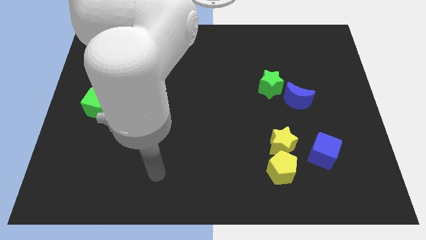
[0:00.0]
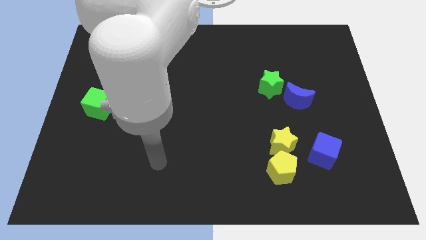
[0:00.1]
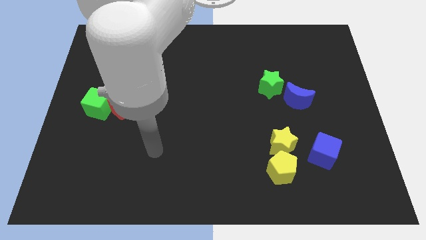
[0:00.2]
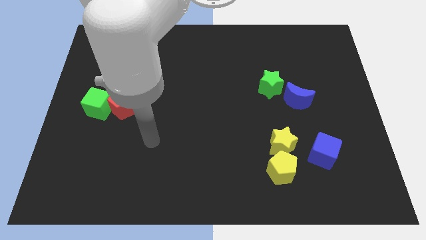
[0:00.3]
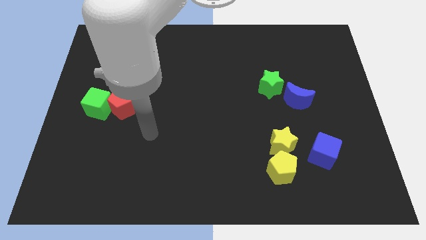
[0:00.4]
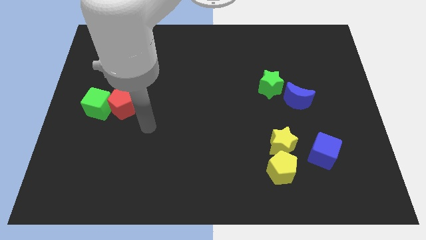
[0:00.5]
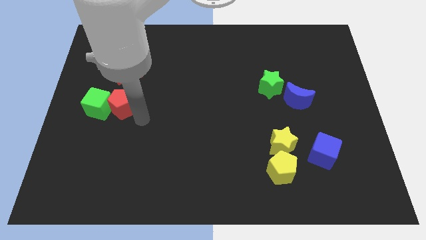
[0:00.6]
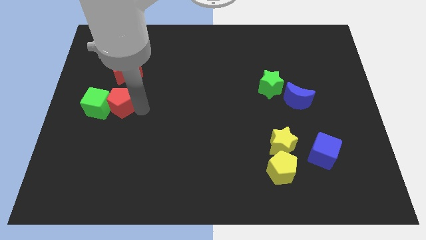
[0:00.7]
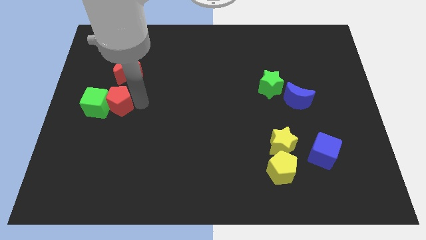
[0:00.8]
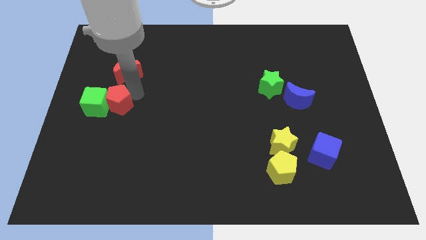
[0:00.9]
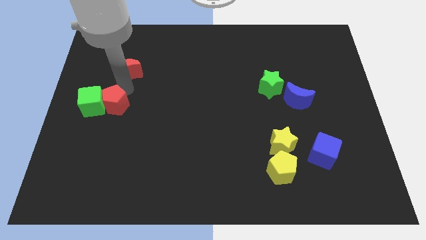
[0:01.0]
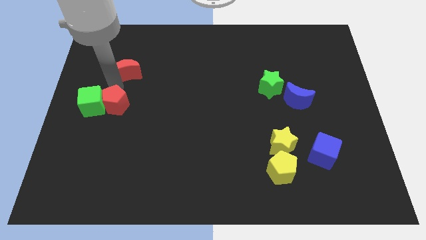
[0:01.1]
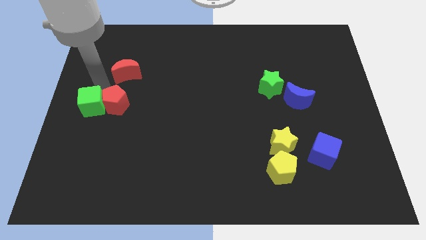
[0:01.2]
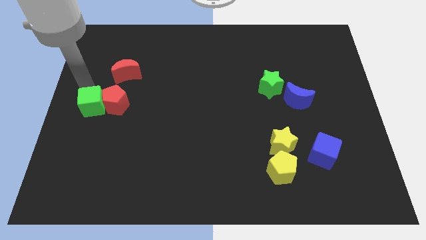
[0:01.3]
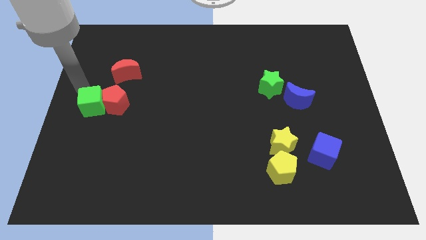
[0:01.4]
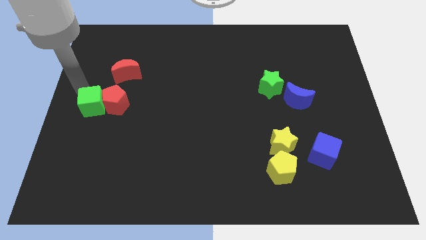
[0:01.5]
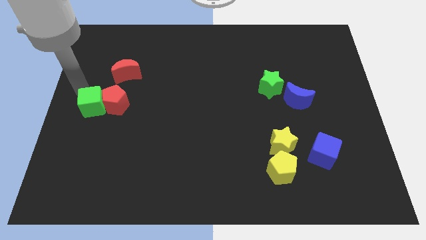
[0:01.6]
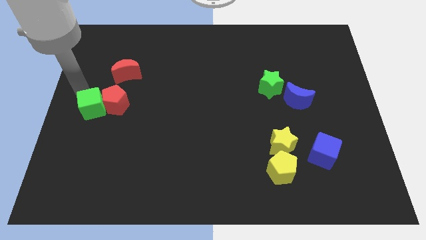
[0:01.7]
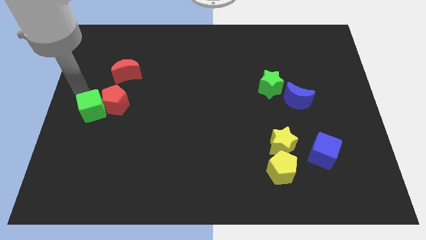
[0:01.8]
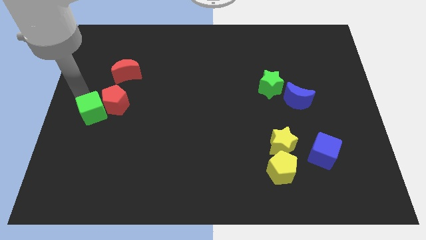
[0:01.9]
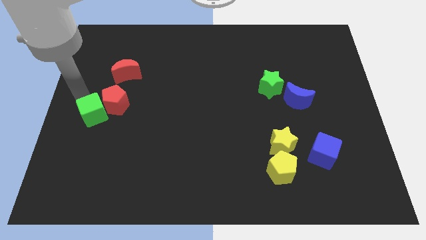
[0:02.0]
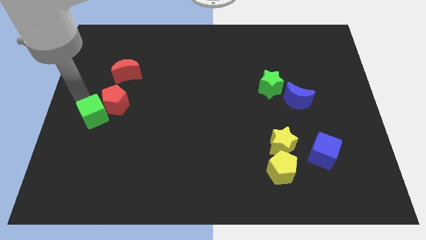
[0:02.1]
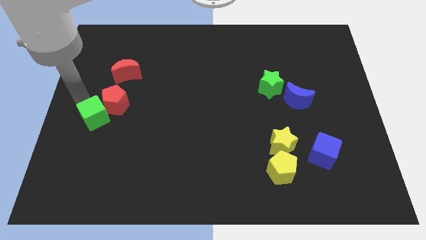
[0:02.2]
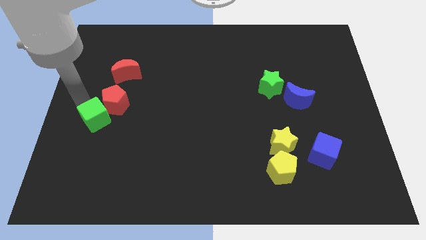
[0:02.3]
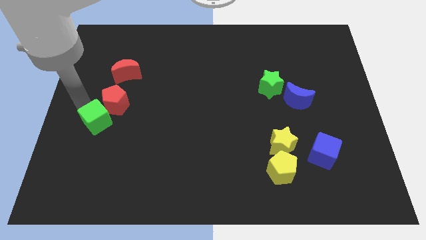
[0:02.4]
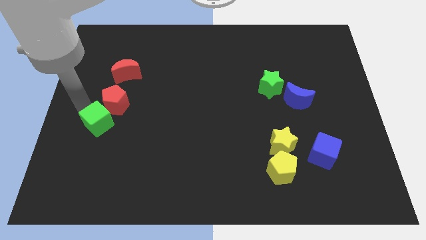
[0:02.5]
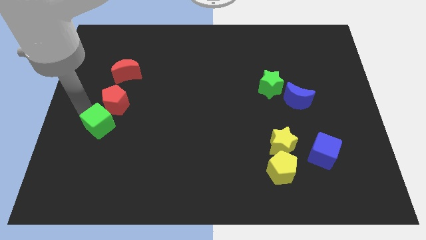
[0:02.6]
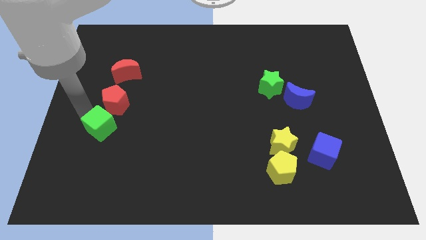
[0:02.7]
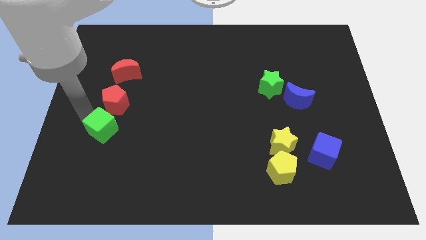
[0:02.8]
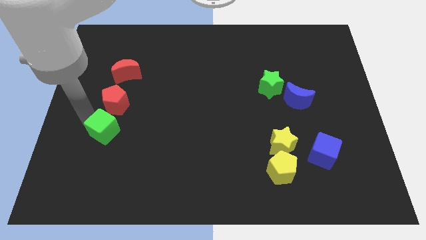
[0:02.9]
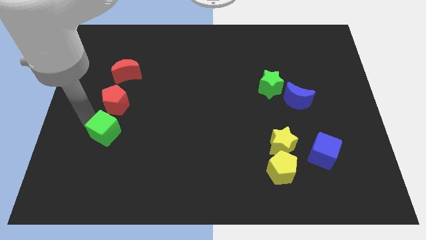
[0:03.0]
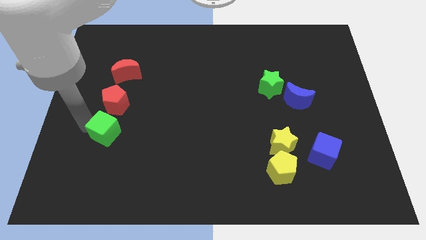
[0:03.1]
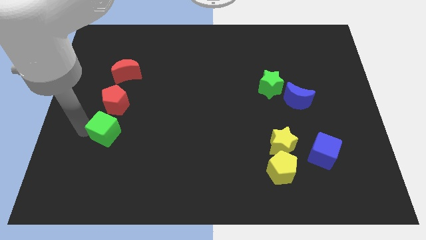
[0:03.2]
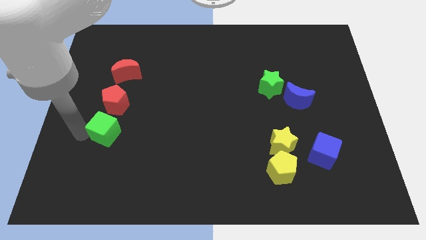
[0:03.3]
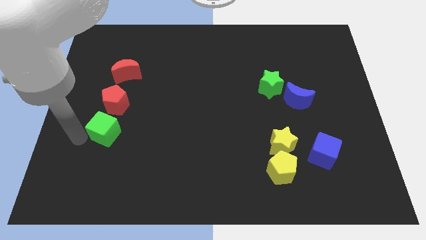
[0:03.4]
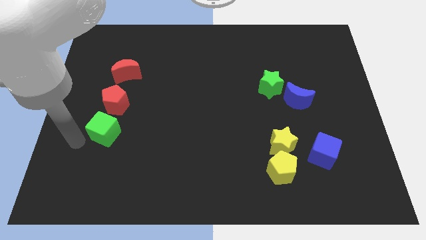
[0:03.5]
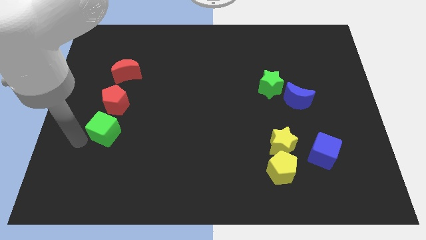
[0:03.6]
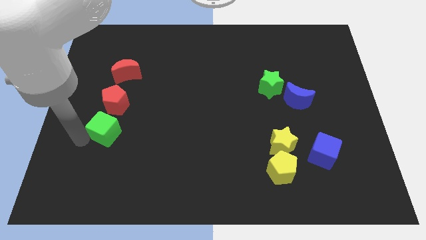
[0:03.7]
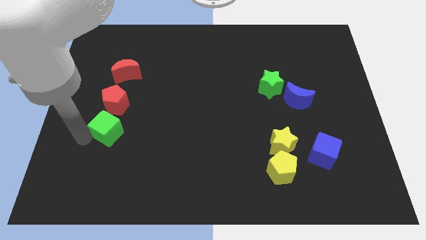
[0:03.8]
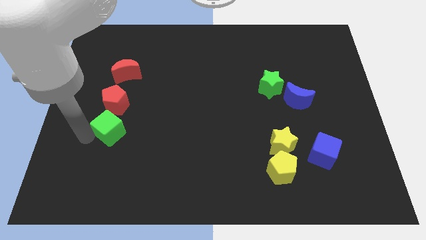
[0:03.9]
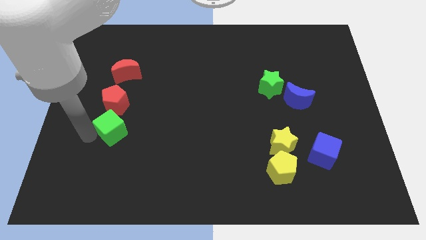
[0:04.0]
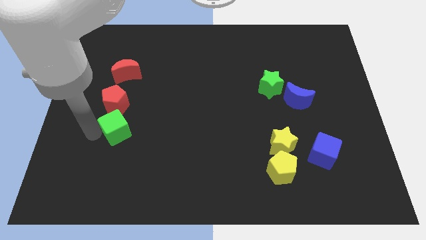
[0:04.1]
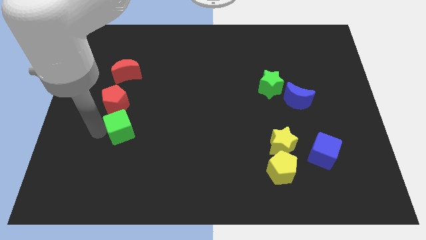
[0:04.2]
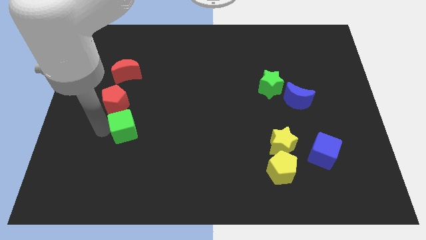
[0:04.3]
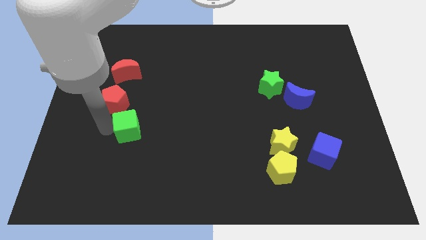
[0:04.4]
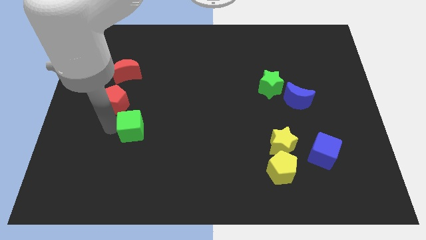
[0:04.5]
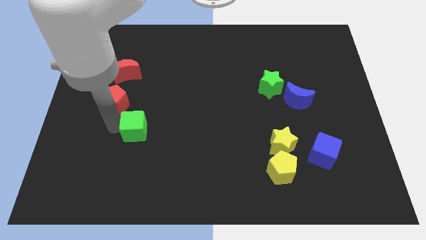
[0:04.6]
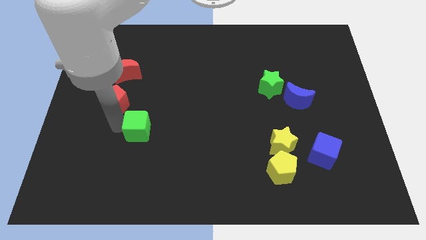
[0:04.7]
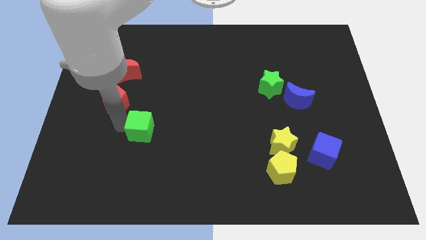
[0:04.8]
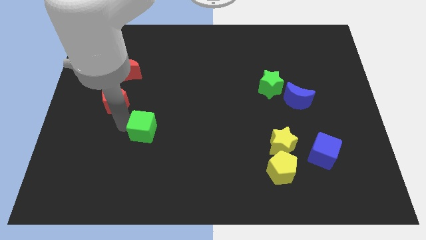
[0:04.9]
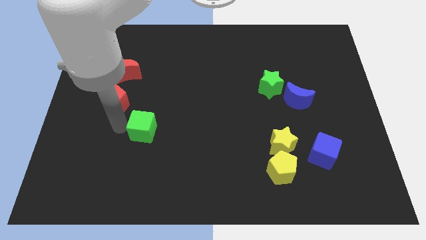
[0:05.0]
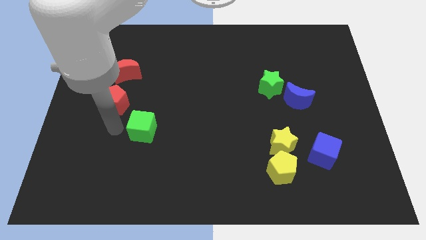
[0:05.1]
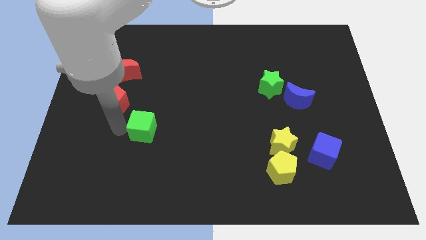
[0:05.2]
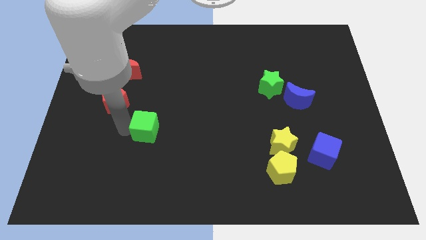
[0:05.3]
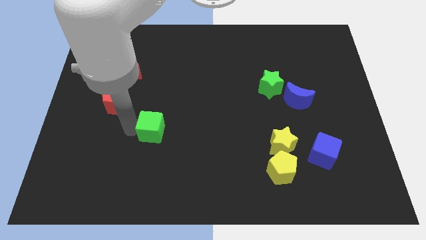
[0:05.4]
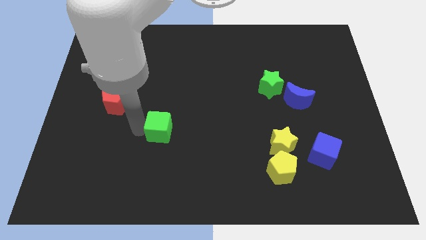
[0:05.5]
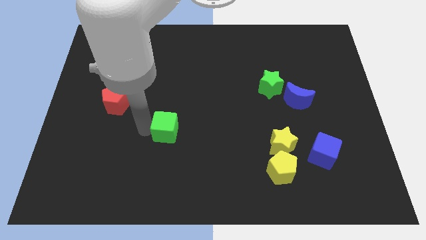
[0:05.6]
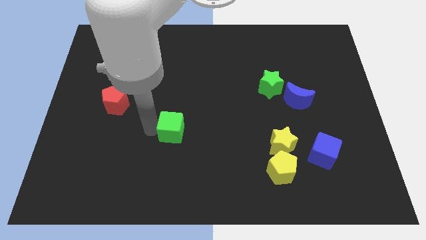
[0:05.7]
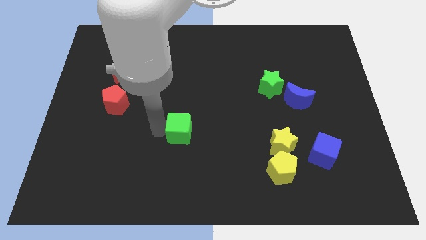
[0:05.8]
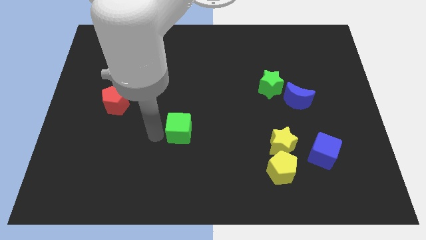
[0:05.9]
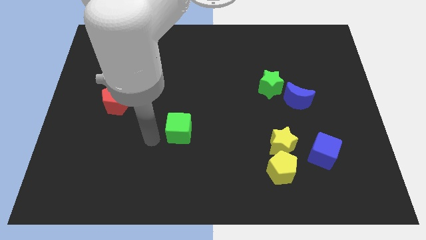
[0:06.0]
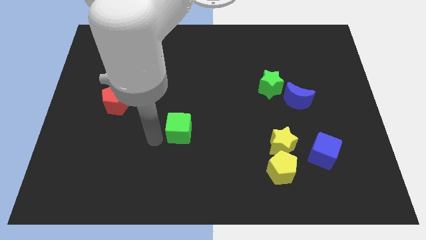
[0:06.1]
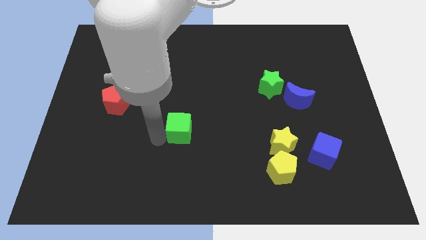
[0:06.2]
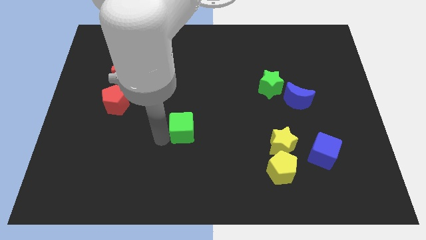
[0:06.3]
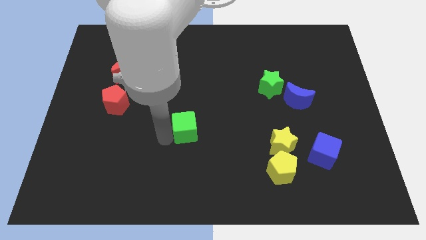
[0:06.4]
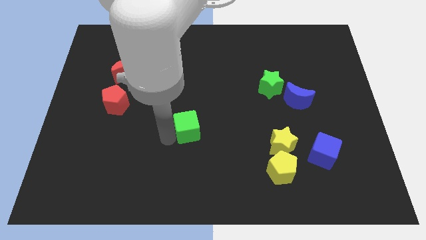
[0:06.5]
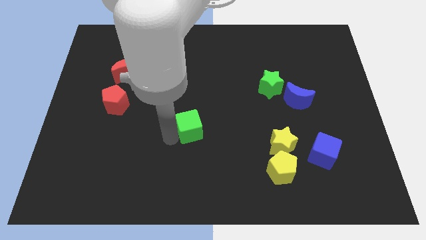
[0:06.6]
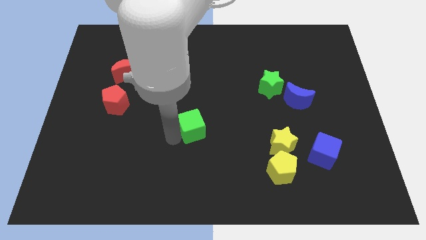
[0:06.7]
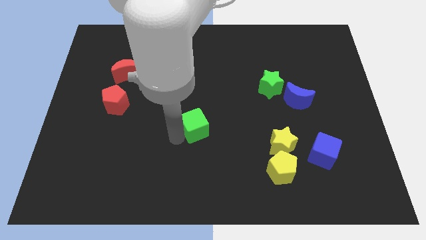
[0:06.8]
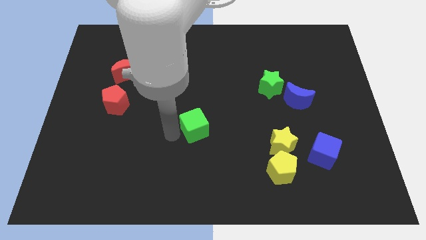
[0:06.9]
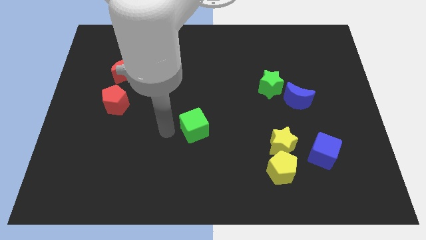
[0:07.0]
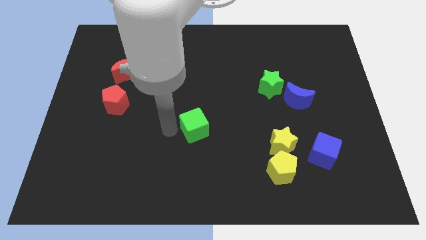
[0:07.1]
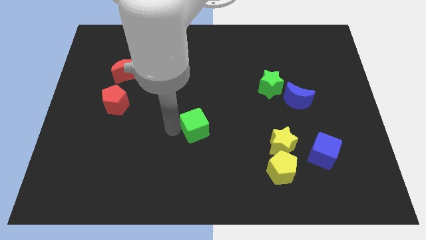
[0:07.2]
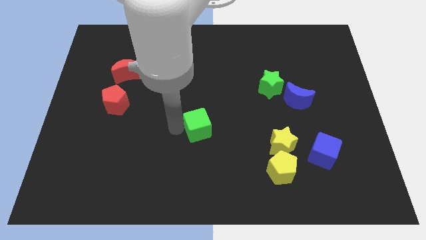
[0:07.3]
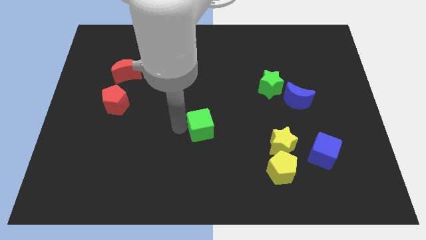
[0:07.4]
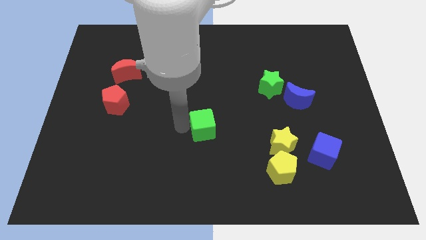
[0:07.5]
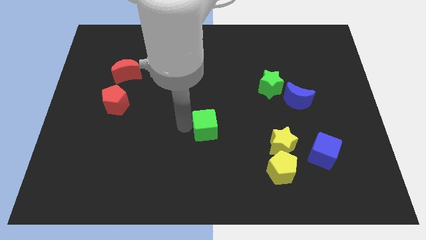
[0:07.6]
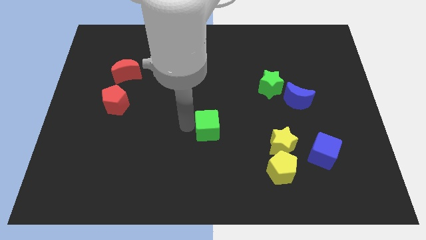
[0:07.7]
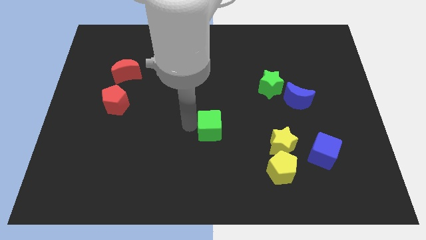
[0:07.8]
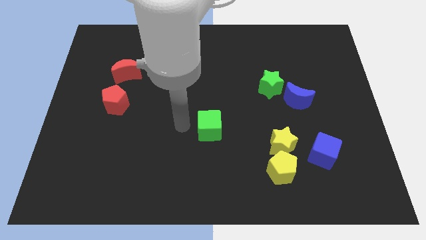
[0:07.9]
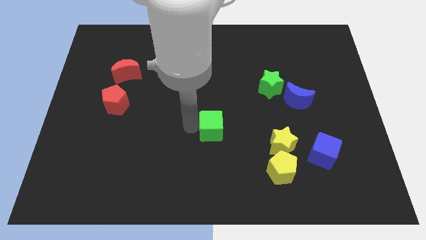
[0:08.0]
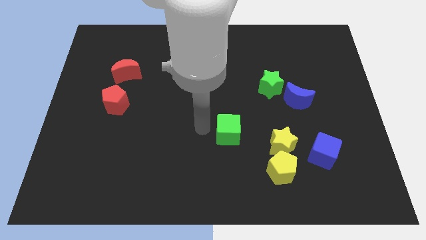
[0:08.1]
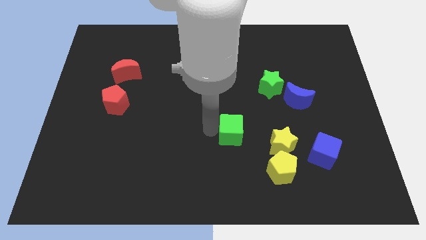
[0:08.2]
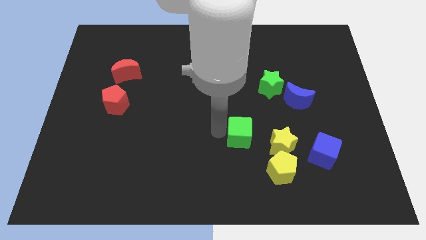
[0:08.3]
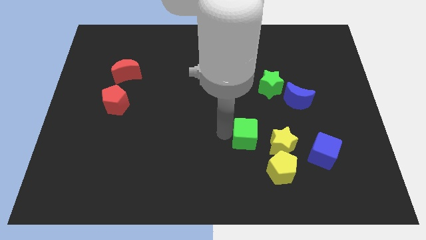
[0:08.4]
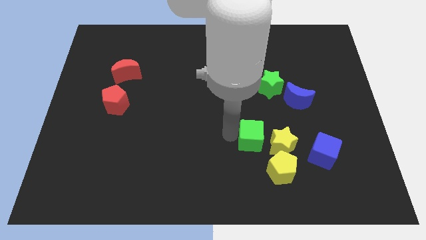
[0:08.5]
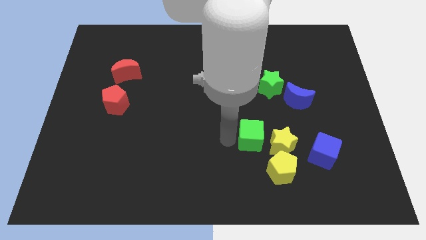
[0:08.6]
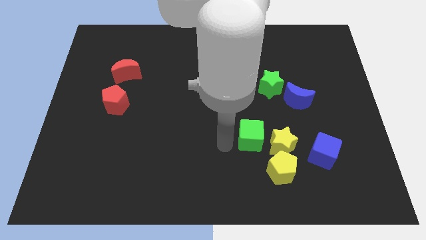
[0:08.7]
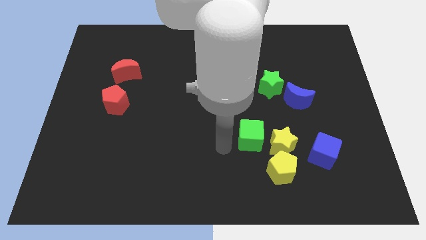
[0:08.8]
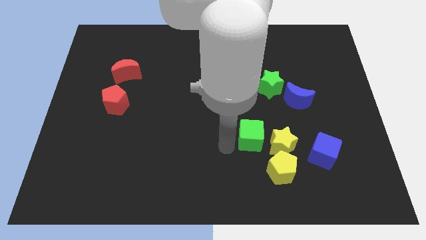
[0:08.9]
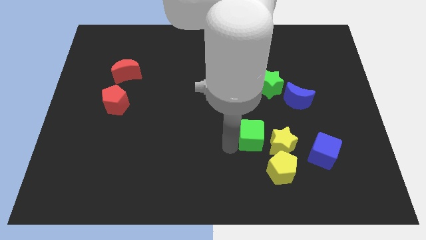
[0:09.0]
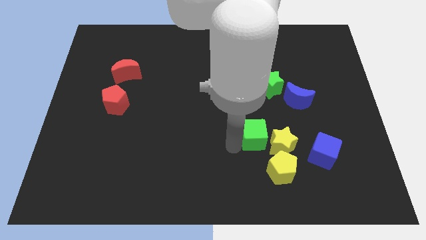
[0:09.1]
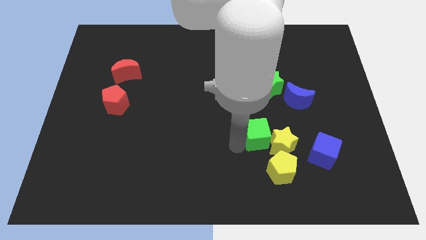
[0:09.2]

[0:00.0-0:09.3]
slide the green cube to the top side of the yellow pentagon
